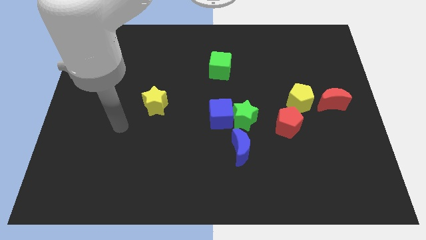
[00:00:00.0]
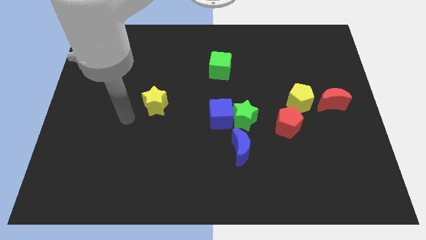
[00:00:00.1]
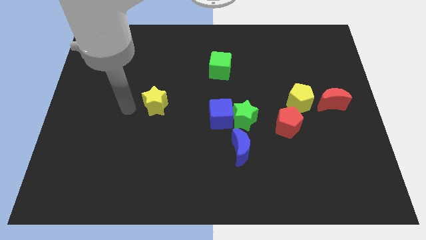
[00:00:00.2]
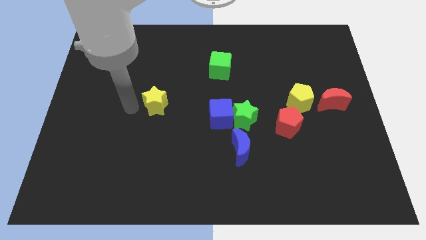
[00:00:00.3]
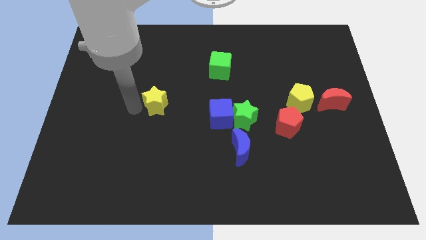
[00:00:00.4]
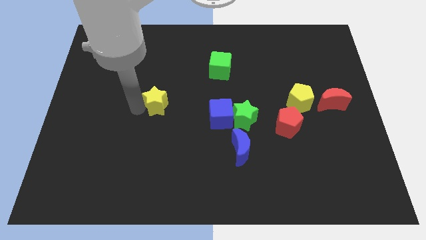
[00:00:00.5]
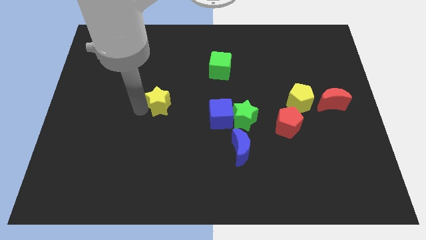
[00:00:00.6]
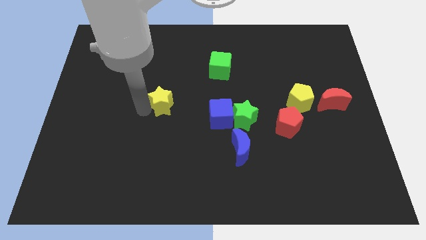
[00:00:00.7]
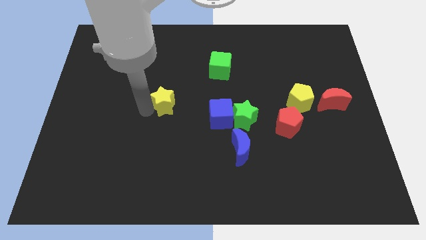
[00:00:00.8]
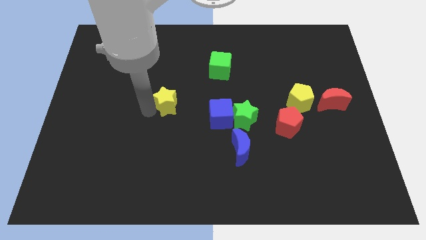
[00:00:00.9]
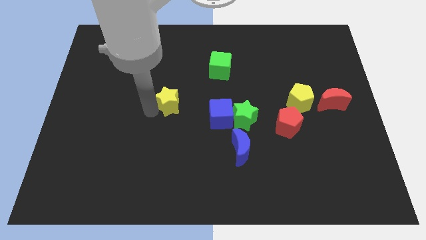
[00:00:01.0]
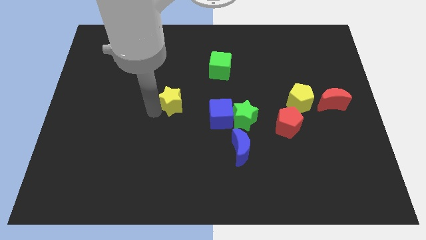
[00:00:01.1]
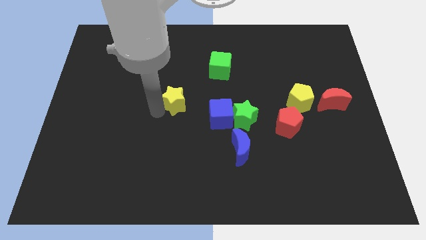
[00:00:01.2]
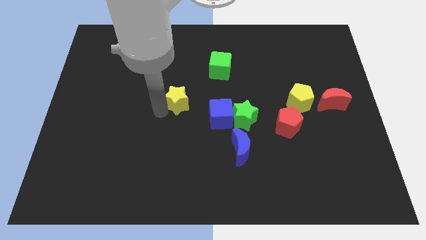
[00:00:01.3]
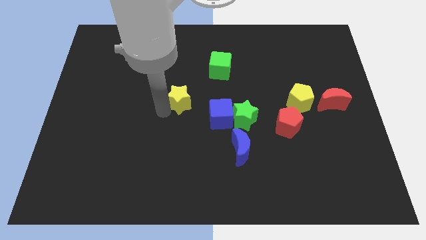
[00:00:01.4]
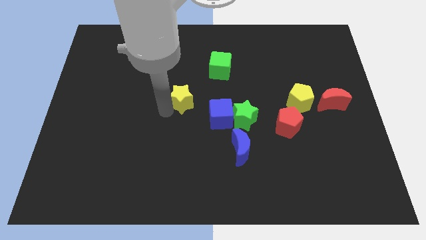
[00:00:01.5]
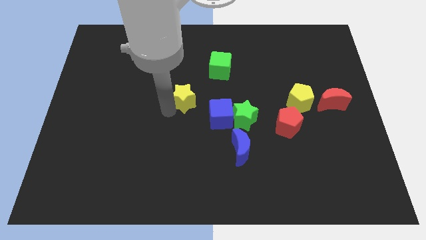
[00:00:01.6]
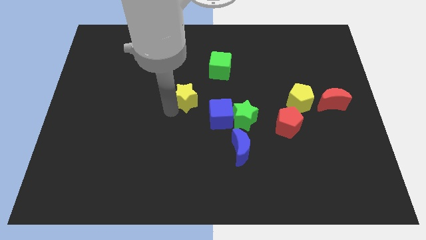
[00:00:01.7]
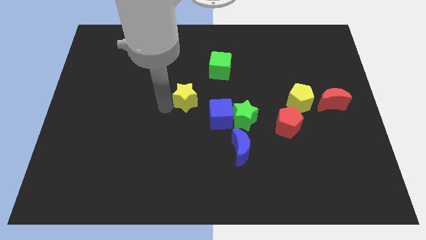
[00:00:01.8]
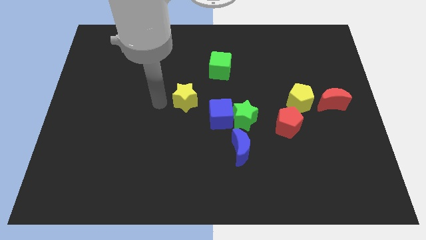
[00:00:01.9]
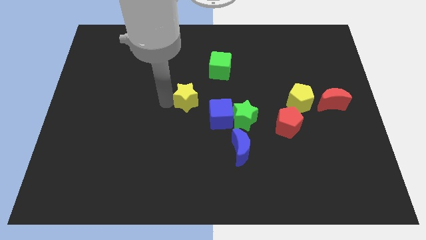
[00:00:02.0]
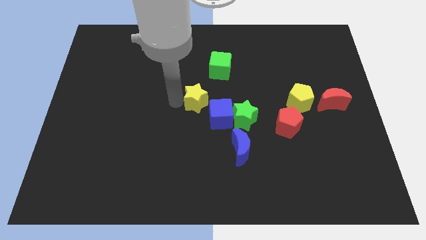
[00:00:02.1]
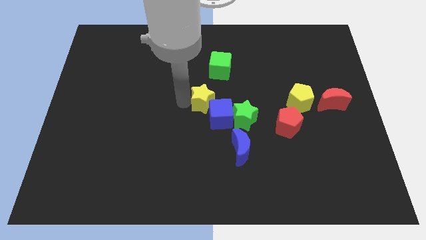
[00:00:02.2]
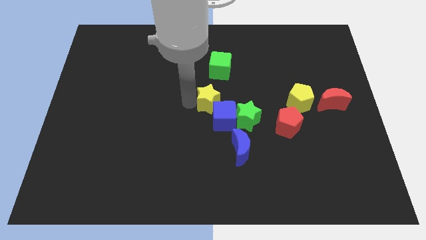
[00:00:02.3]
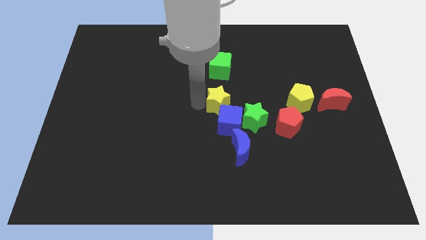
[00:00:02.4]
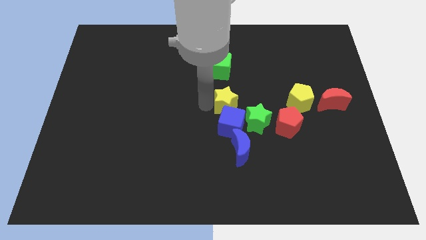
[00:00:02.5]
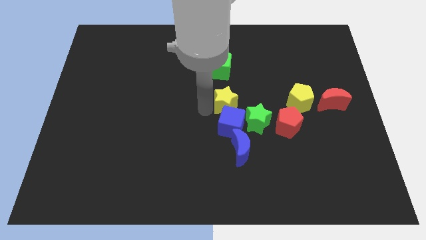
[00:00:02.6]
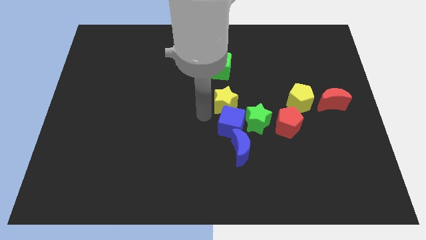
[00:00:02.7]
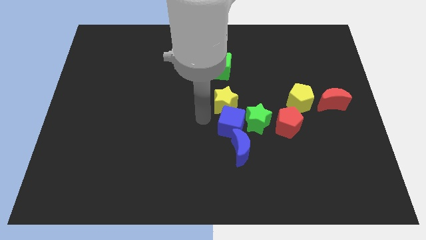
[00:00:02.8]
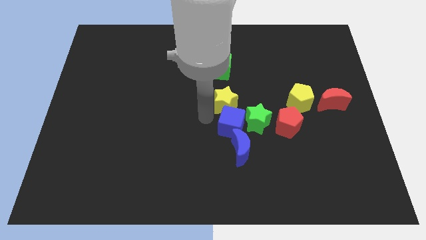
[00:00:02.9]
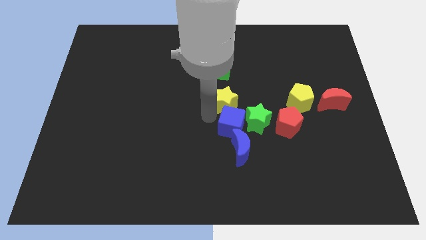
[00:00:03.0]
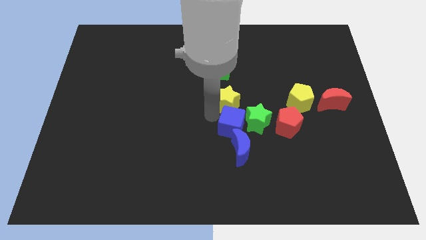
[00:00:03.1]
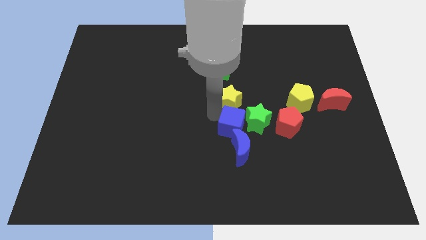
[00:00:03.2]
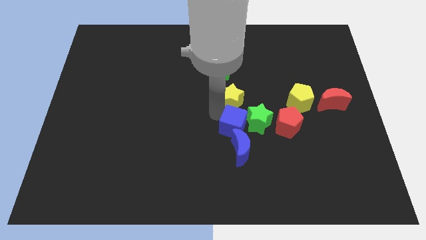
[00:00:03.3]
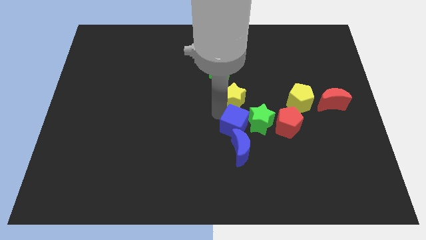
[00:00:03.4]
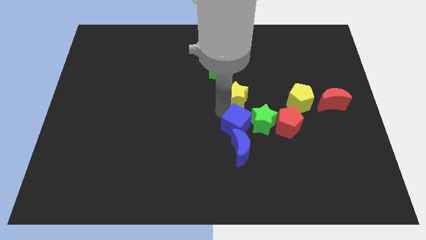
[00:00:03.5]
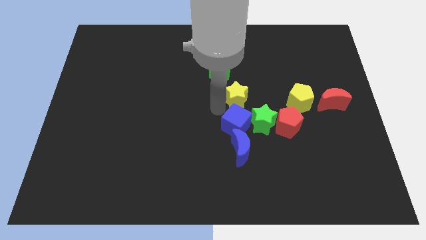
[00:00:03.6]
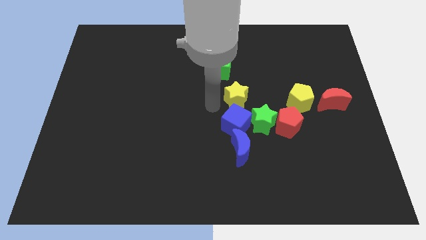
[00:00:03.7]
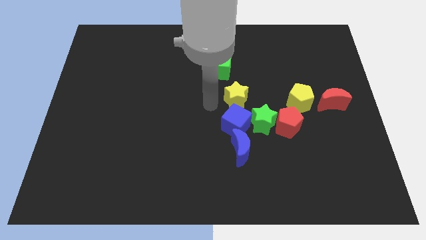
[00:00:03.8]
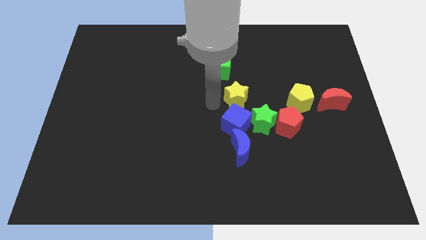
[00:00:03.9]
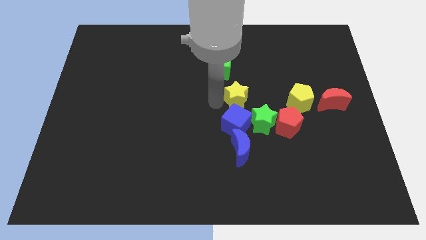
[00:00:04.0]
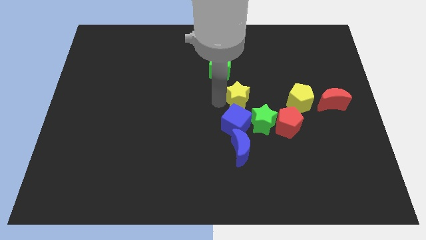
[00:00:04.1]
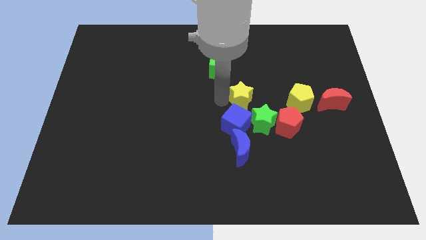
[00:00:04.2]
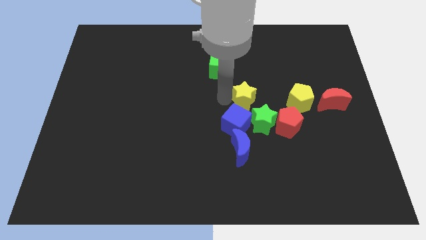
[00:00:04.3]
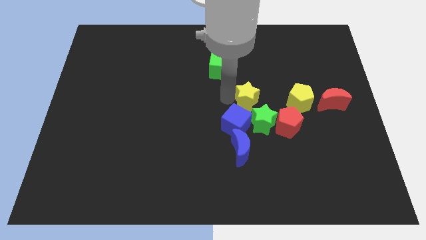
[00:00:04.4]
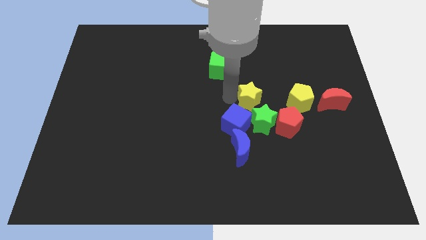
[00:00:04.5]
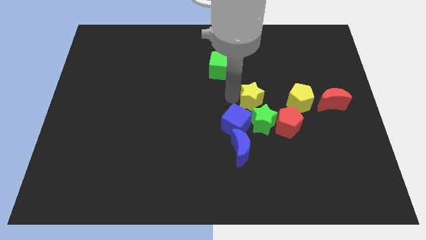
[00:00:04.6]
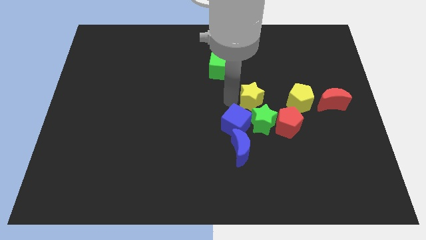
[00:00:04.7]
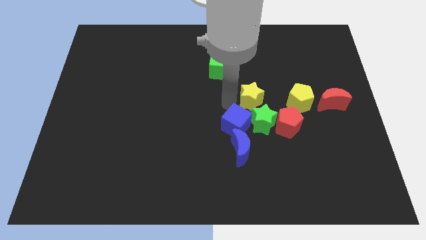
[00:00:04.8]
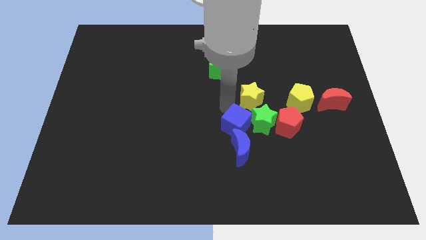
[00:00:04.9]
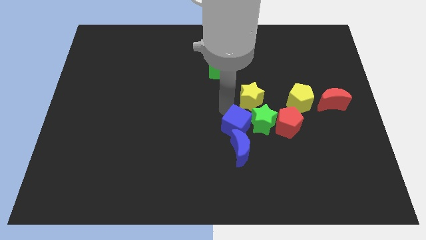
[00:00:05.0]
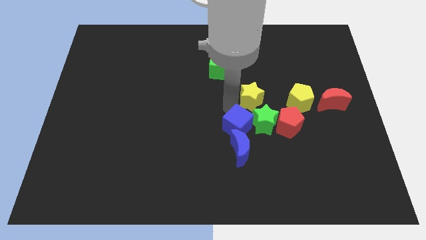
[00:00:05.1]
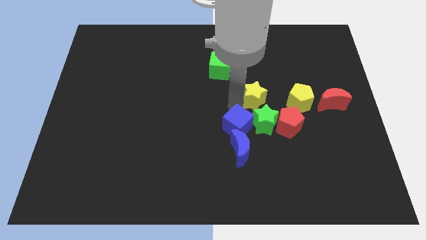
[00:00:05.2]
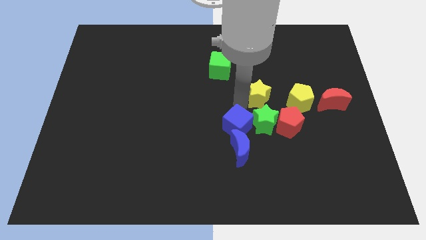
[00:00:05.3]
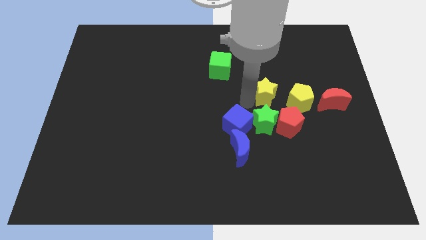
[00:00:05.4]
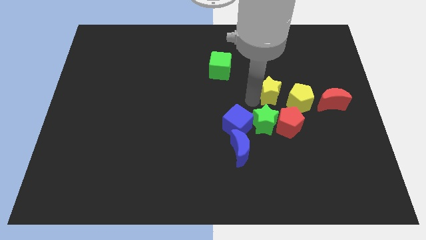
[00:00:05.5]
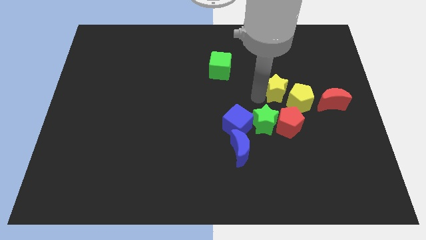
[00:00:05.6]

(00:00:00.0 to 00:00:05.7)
move the yellow star close to the yellow pentagon

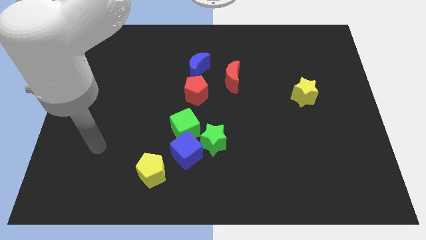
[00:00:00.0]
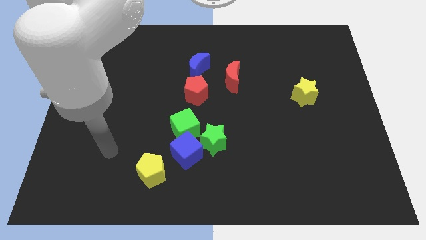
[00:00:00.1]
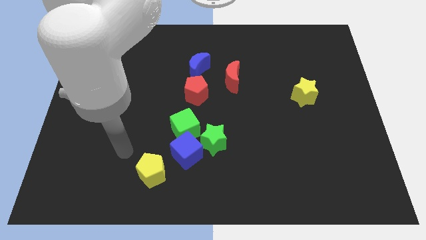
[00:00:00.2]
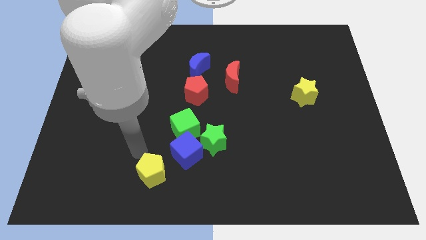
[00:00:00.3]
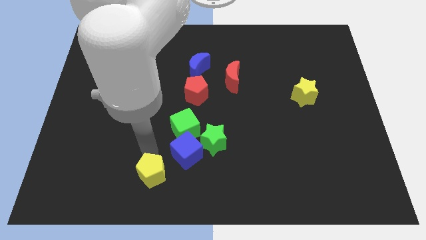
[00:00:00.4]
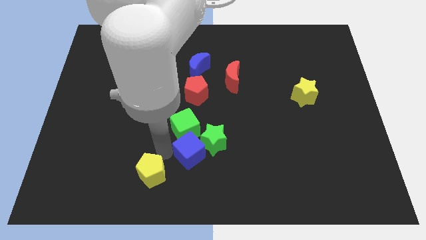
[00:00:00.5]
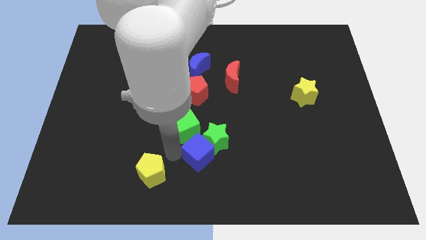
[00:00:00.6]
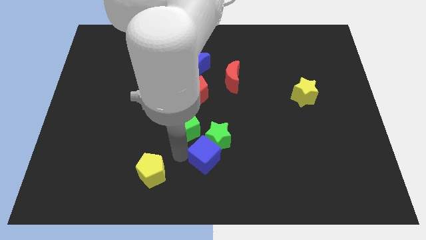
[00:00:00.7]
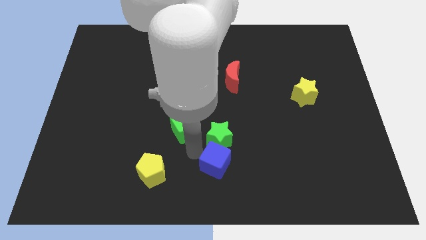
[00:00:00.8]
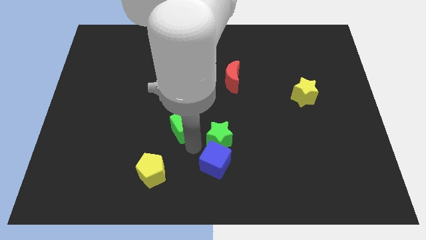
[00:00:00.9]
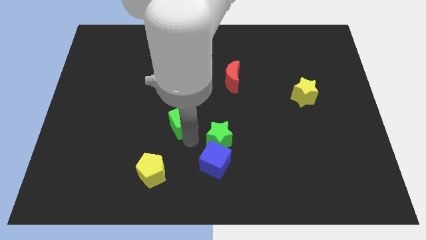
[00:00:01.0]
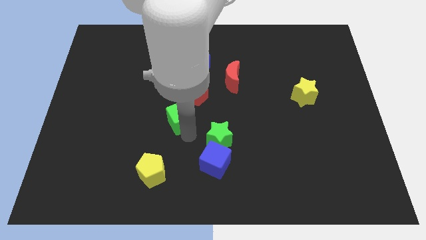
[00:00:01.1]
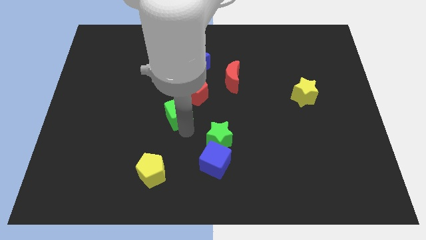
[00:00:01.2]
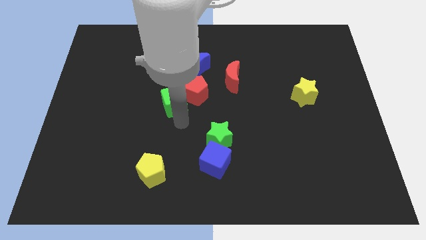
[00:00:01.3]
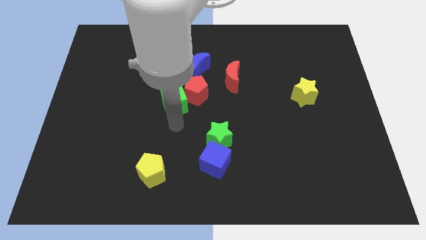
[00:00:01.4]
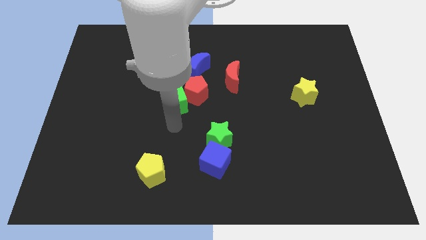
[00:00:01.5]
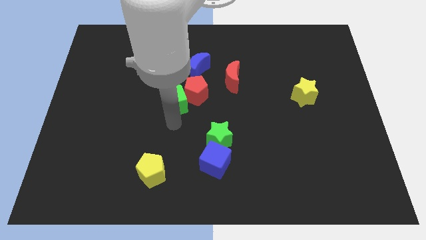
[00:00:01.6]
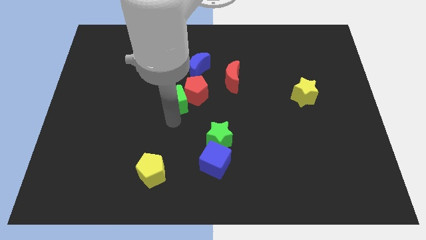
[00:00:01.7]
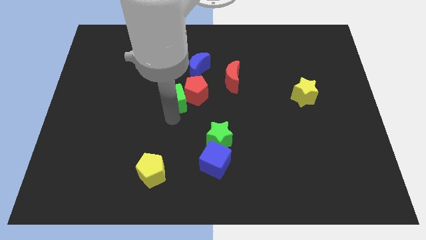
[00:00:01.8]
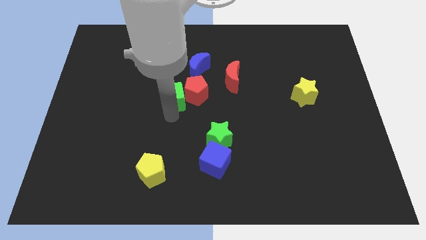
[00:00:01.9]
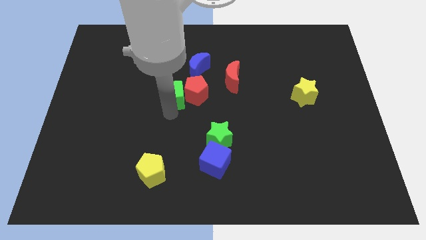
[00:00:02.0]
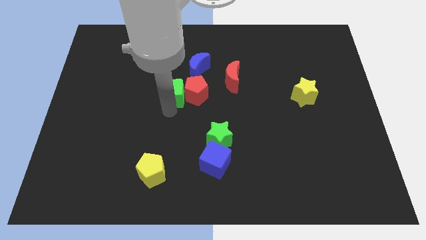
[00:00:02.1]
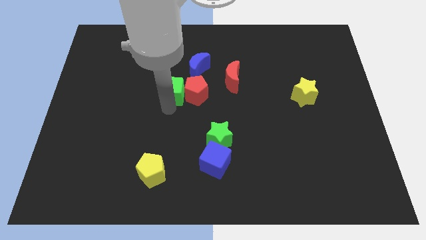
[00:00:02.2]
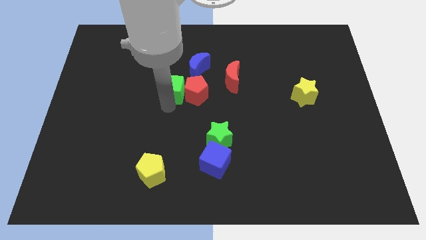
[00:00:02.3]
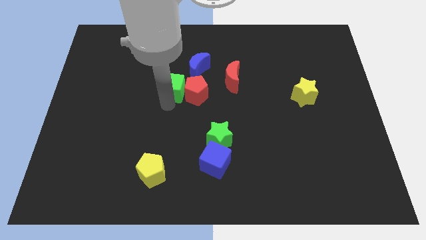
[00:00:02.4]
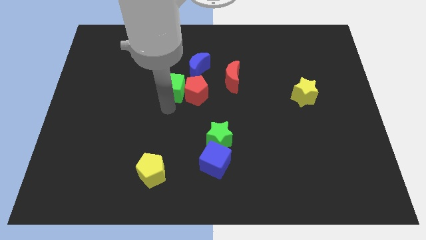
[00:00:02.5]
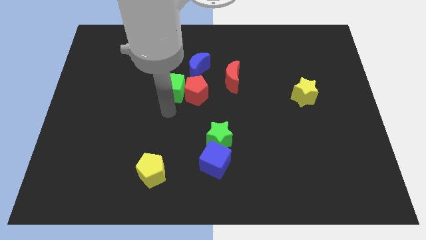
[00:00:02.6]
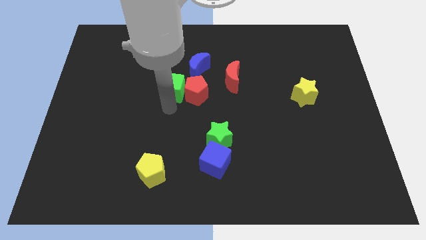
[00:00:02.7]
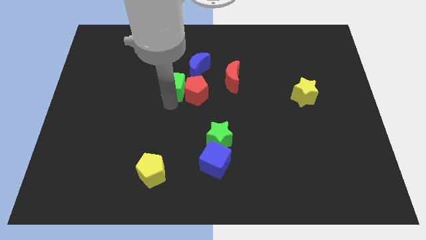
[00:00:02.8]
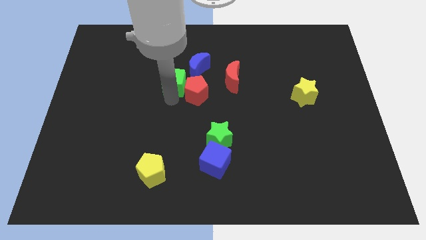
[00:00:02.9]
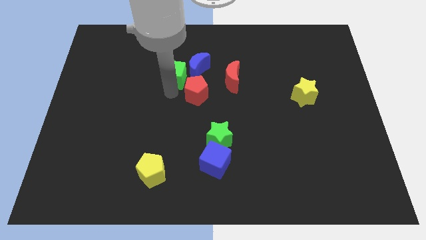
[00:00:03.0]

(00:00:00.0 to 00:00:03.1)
slide the green cube next to the blue moon
